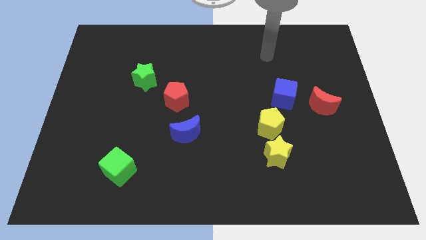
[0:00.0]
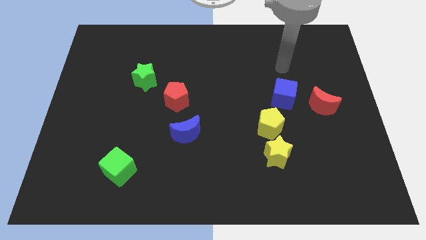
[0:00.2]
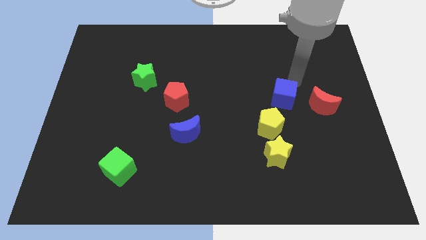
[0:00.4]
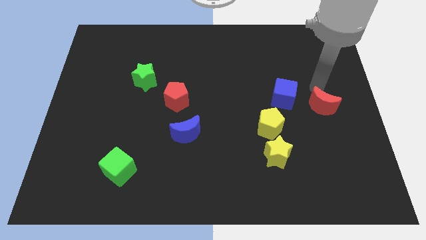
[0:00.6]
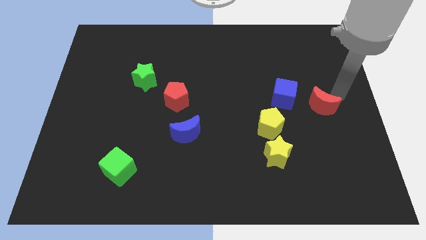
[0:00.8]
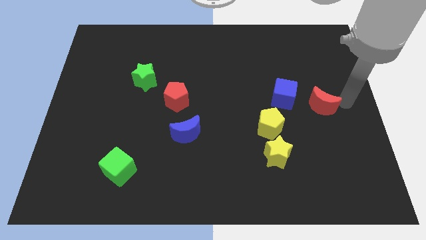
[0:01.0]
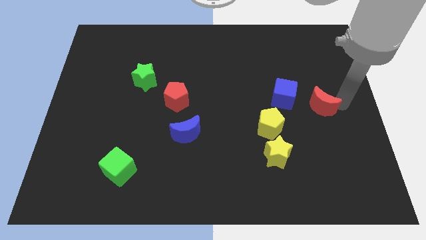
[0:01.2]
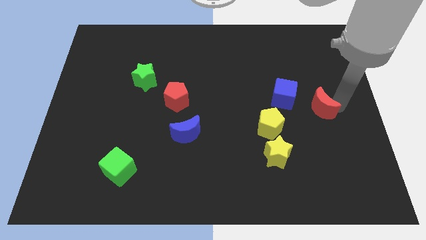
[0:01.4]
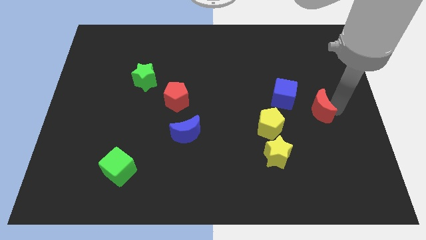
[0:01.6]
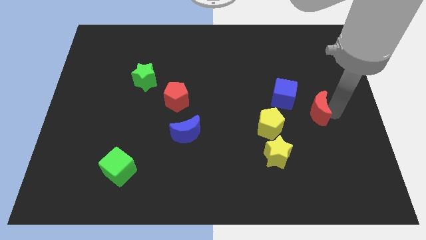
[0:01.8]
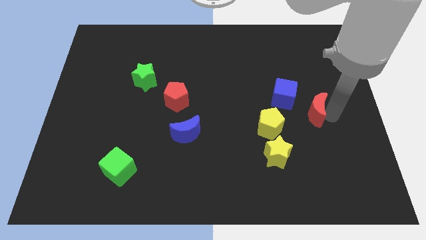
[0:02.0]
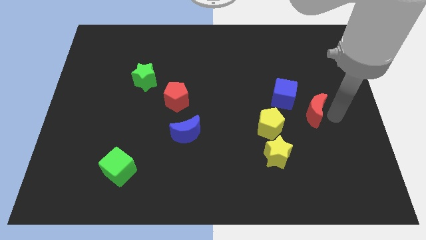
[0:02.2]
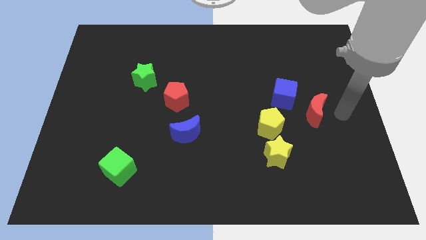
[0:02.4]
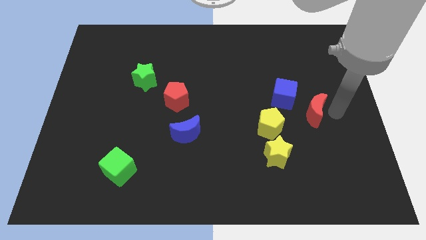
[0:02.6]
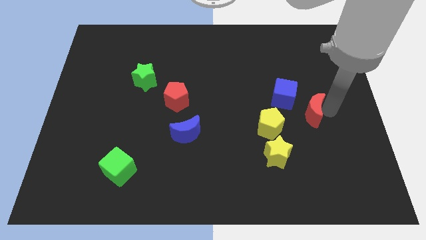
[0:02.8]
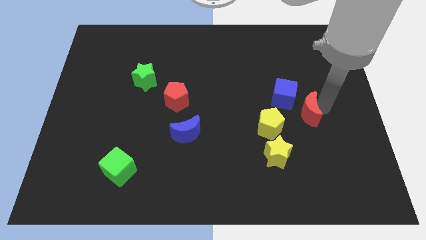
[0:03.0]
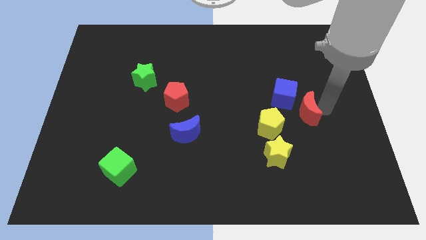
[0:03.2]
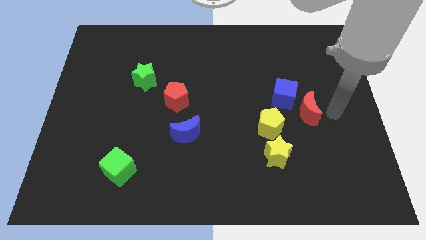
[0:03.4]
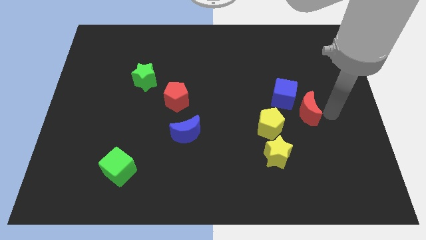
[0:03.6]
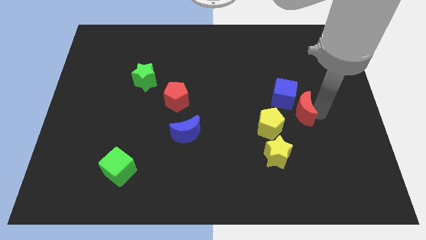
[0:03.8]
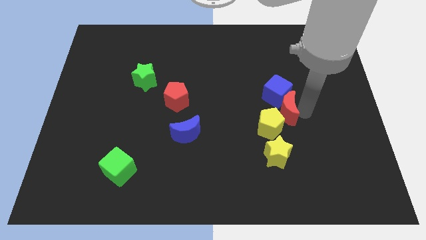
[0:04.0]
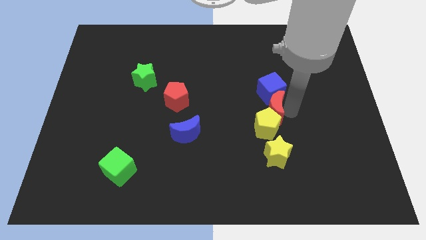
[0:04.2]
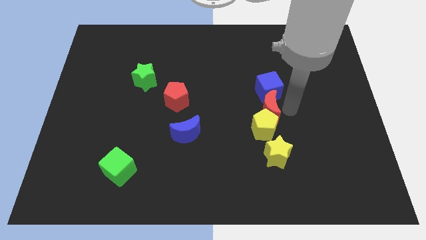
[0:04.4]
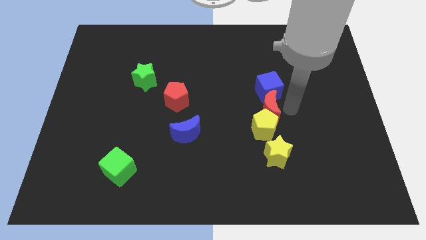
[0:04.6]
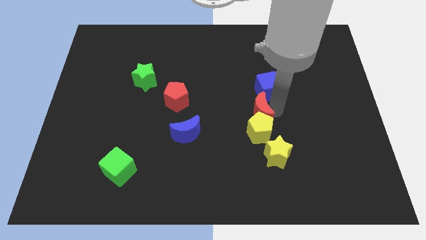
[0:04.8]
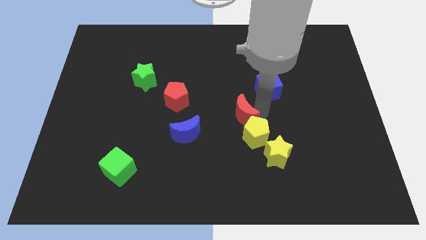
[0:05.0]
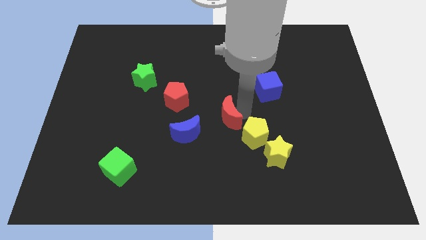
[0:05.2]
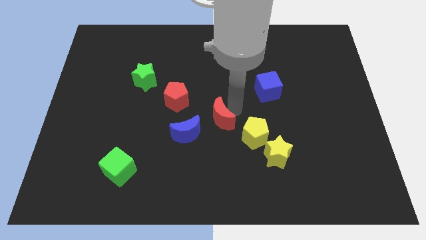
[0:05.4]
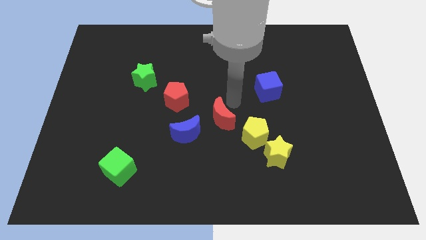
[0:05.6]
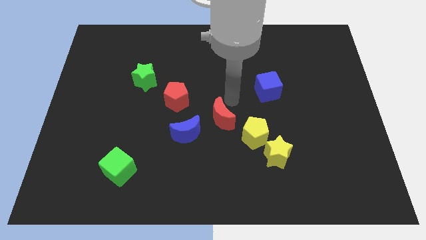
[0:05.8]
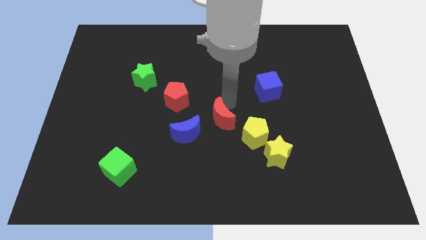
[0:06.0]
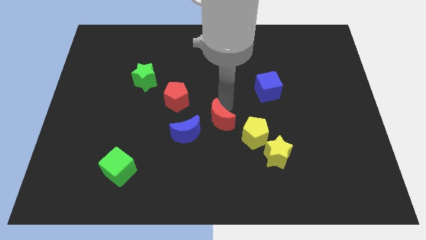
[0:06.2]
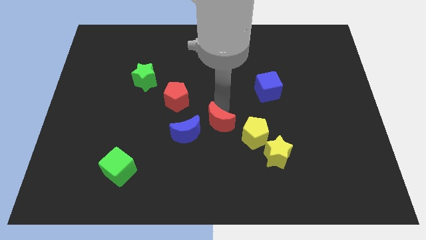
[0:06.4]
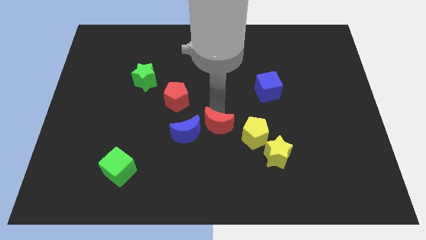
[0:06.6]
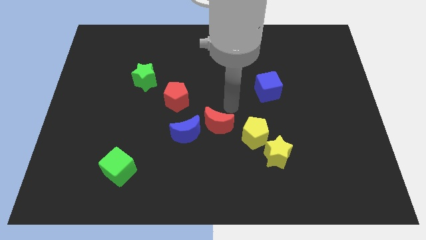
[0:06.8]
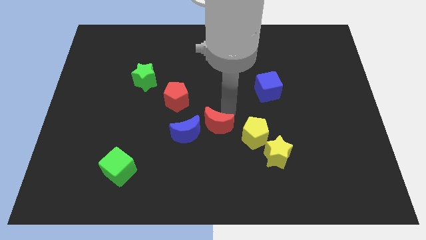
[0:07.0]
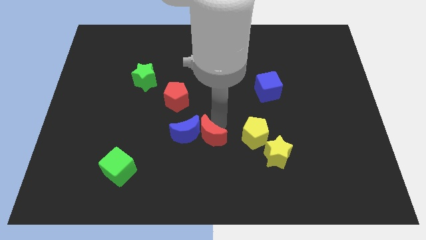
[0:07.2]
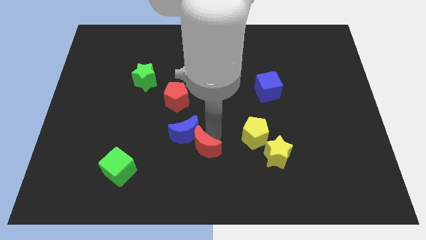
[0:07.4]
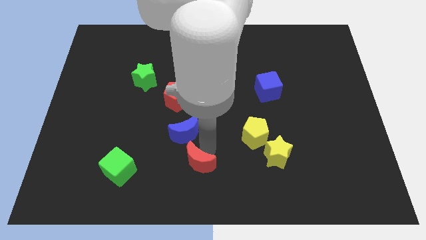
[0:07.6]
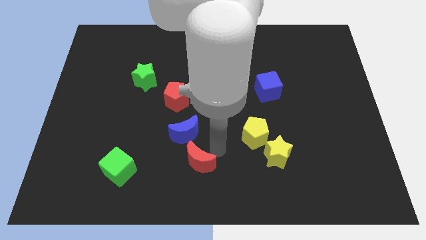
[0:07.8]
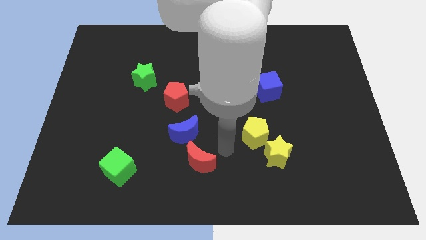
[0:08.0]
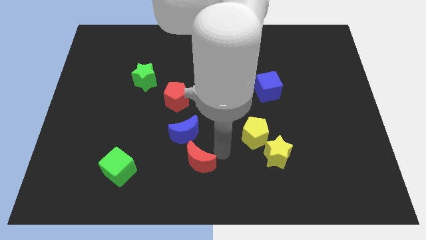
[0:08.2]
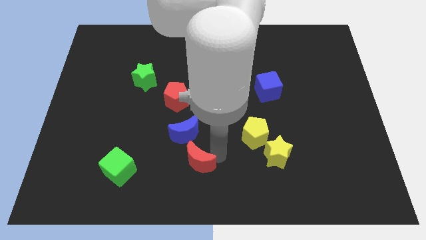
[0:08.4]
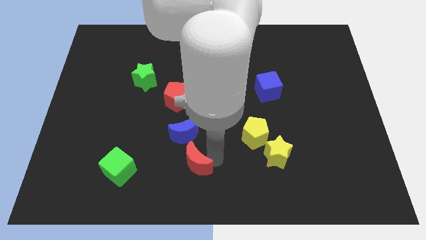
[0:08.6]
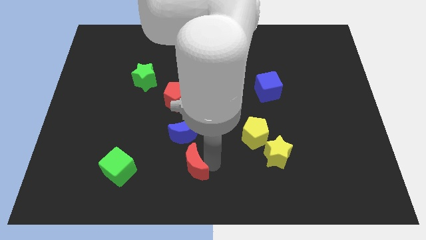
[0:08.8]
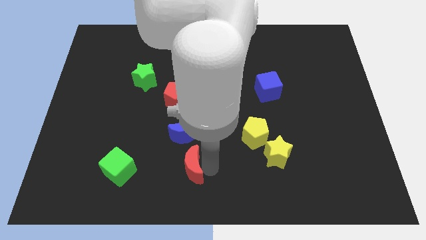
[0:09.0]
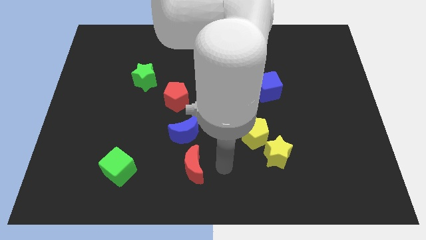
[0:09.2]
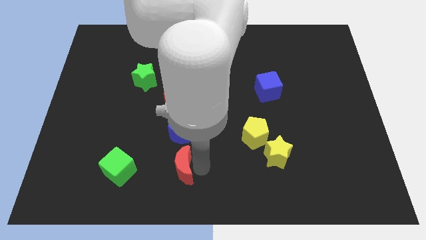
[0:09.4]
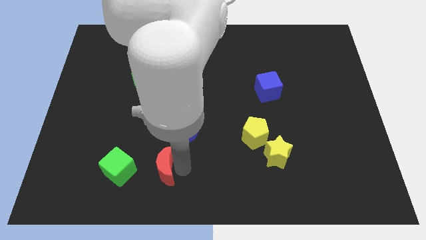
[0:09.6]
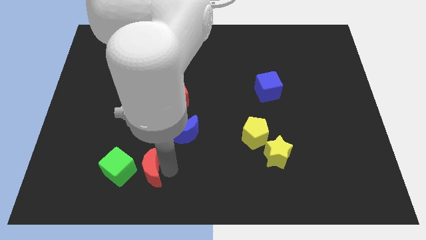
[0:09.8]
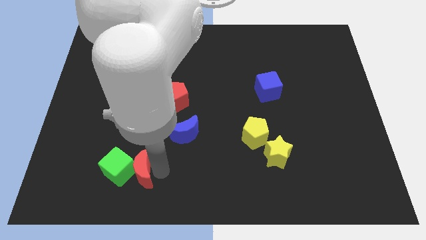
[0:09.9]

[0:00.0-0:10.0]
push the red moon towards the green cube

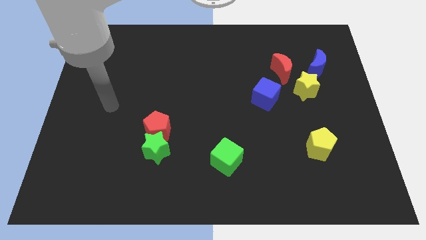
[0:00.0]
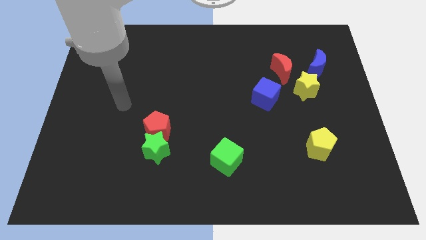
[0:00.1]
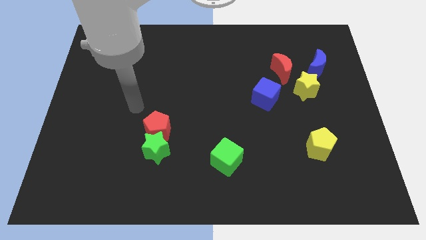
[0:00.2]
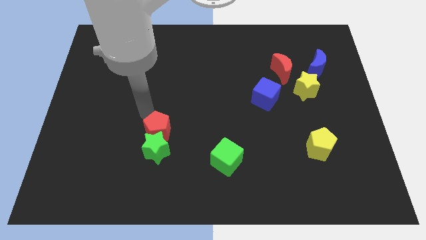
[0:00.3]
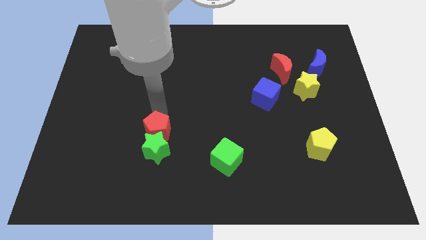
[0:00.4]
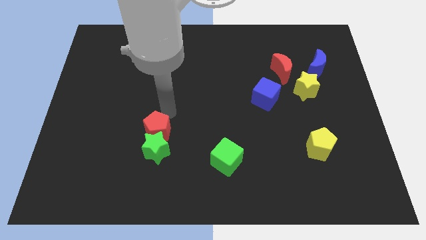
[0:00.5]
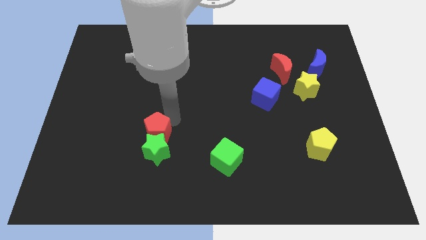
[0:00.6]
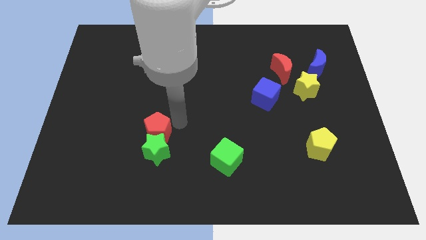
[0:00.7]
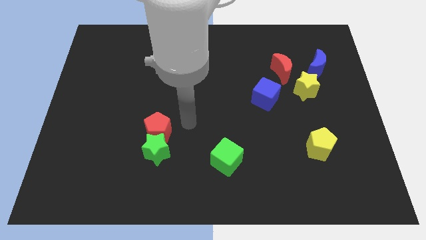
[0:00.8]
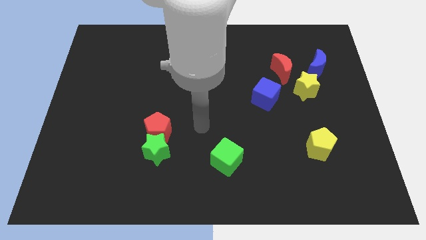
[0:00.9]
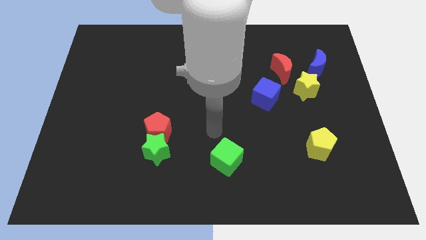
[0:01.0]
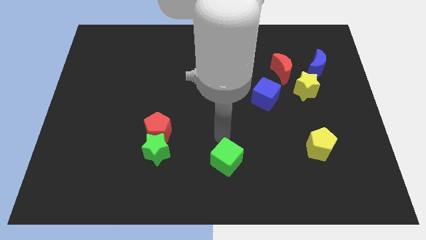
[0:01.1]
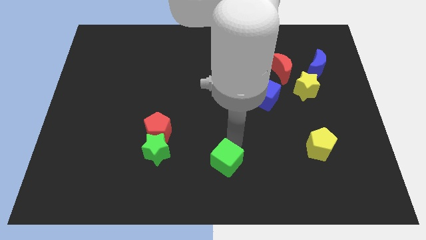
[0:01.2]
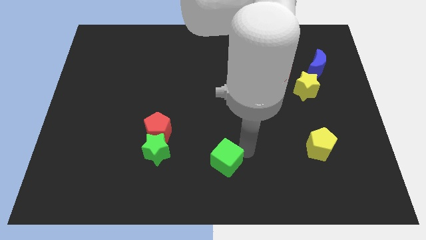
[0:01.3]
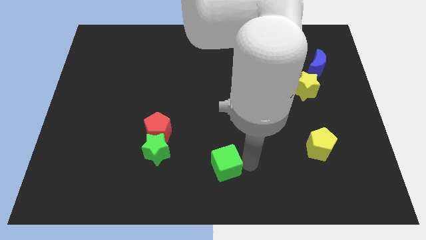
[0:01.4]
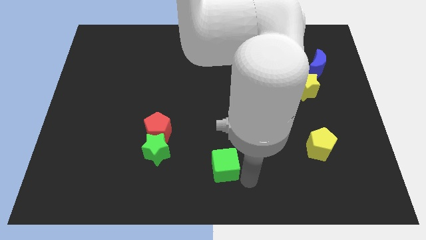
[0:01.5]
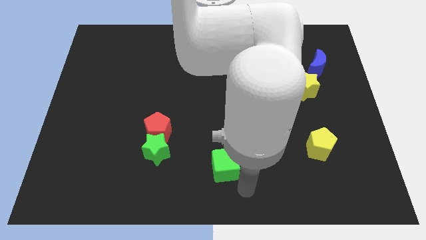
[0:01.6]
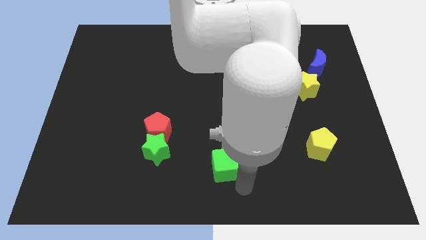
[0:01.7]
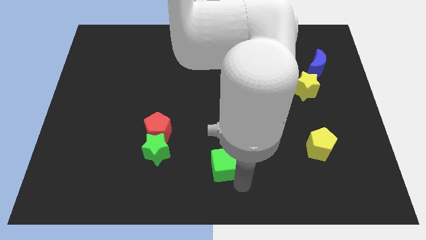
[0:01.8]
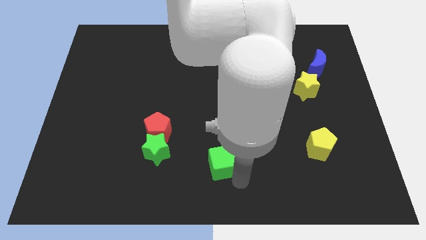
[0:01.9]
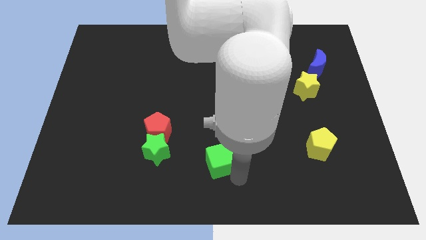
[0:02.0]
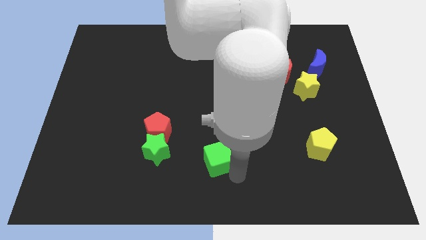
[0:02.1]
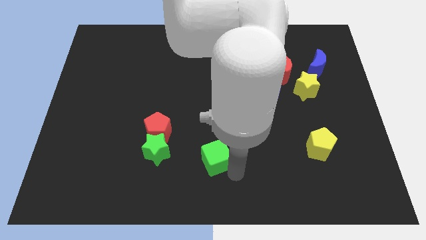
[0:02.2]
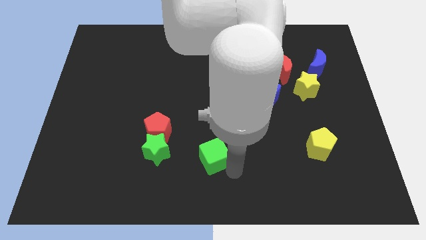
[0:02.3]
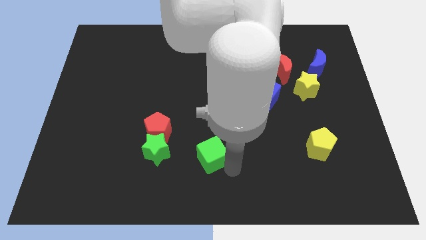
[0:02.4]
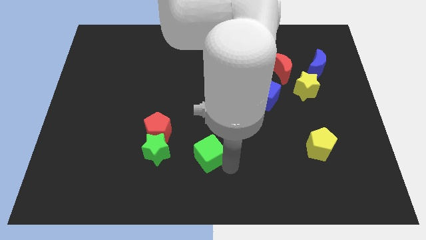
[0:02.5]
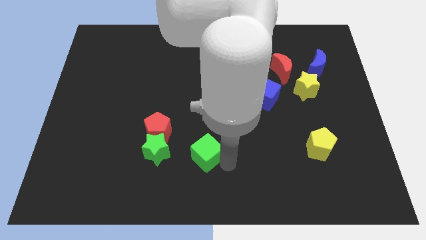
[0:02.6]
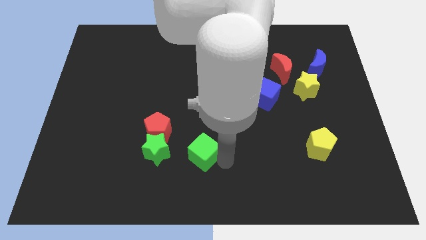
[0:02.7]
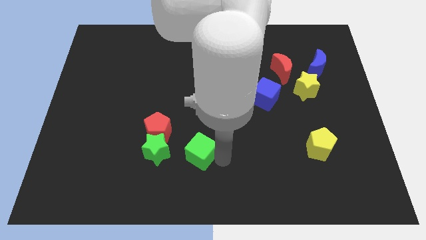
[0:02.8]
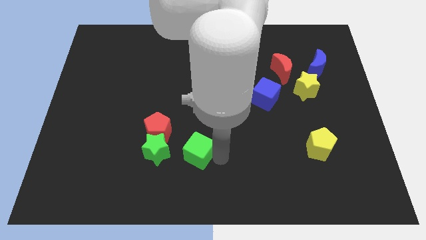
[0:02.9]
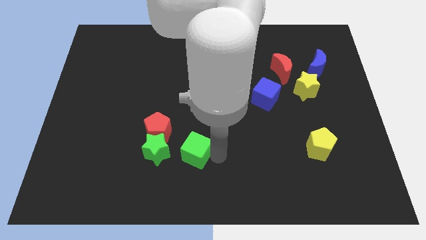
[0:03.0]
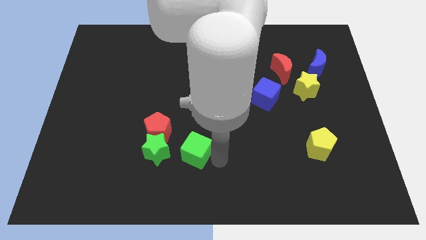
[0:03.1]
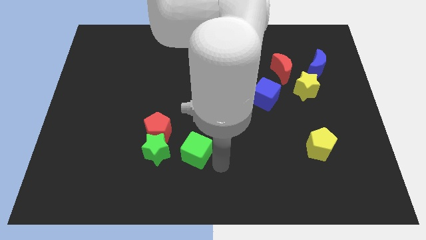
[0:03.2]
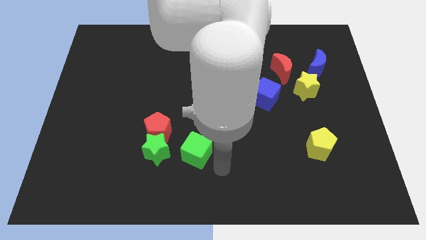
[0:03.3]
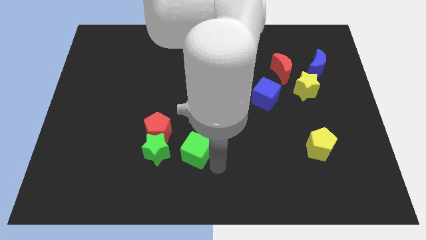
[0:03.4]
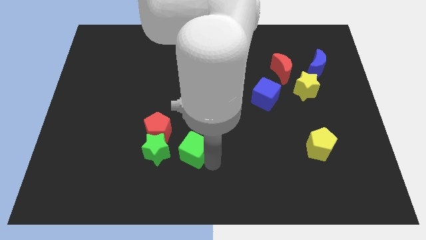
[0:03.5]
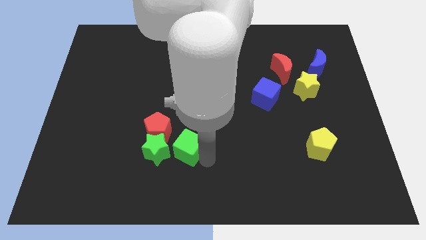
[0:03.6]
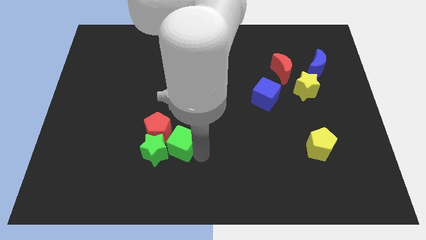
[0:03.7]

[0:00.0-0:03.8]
move the green cube towards the green star
